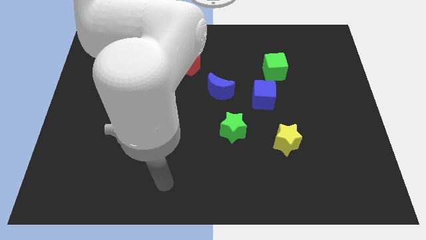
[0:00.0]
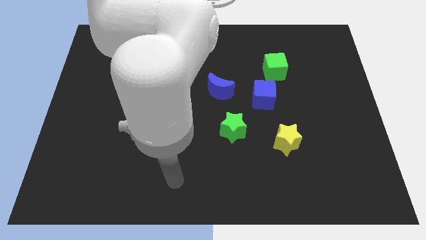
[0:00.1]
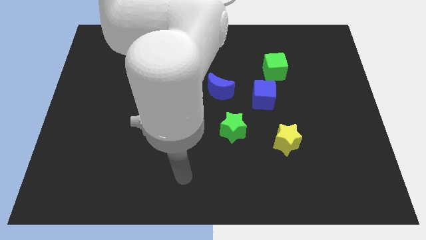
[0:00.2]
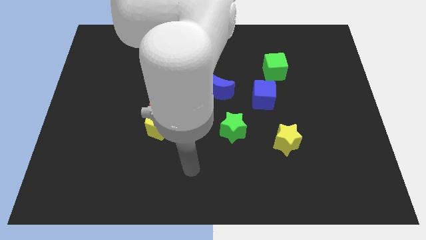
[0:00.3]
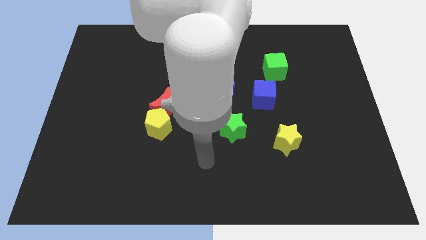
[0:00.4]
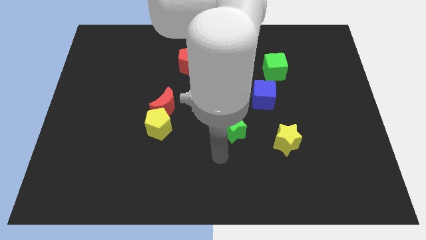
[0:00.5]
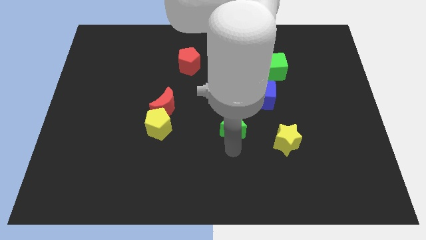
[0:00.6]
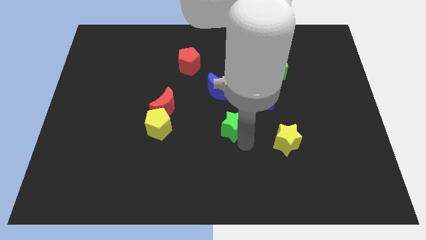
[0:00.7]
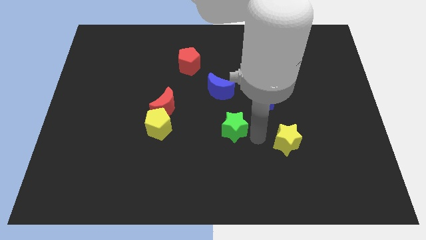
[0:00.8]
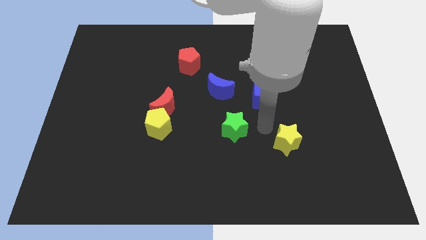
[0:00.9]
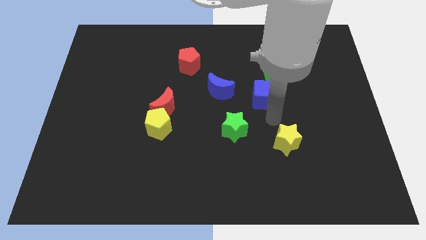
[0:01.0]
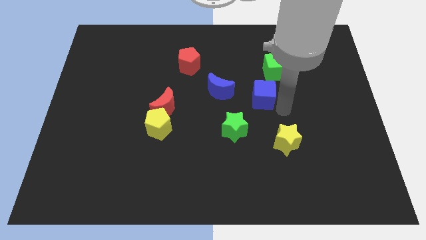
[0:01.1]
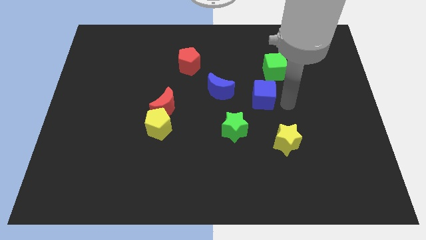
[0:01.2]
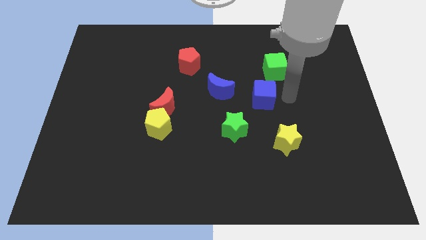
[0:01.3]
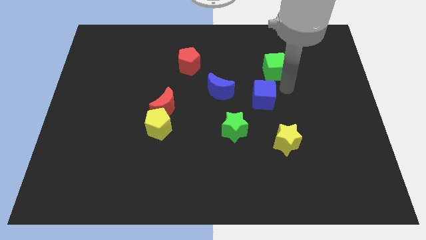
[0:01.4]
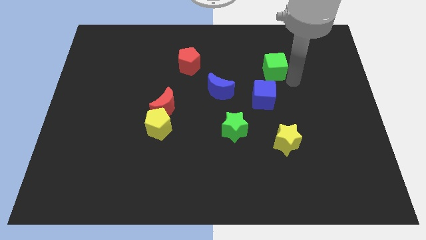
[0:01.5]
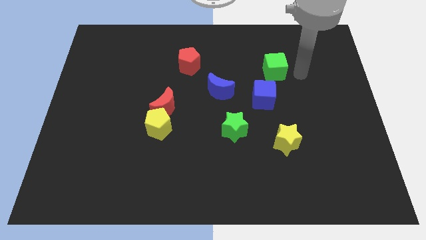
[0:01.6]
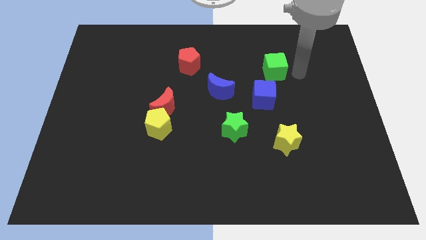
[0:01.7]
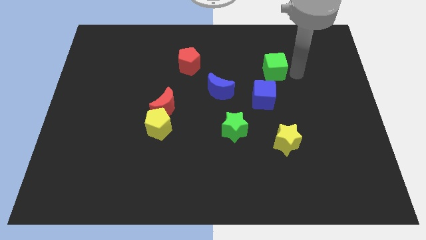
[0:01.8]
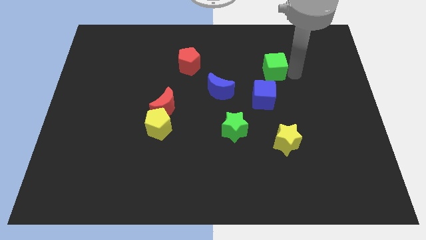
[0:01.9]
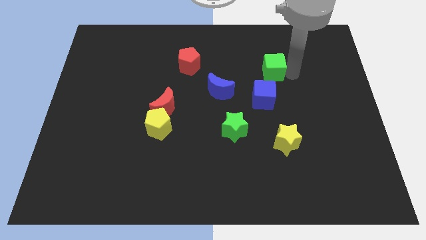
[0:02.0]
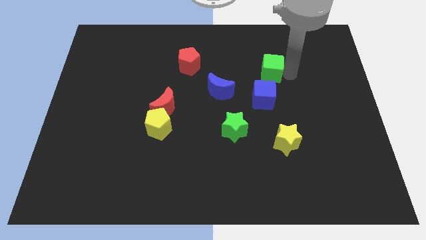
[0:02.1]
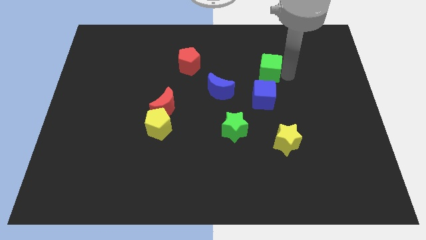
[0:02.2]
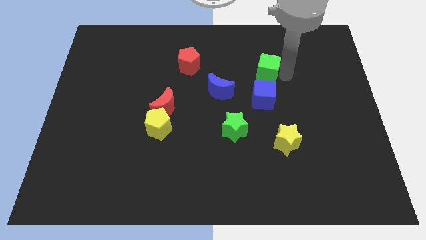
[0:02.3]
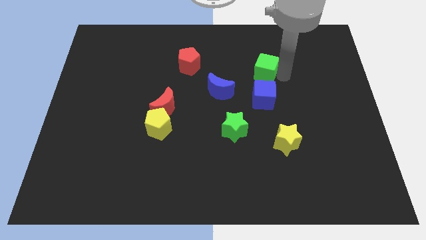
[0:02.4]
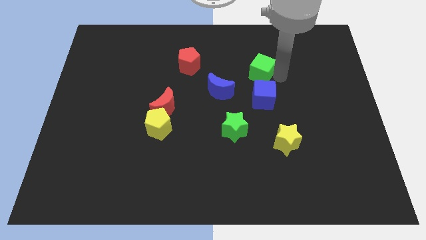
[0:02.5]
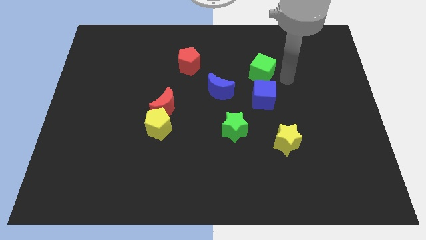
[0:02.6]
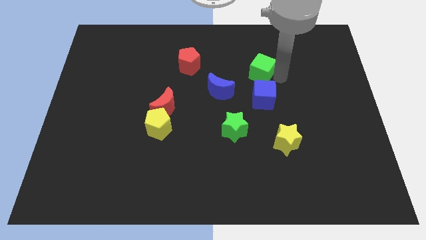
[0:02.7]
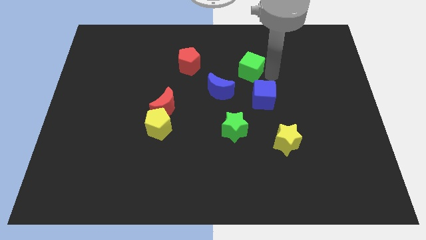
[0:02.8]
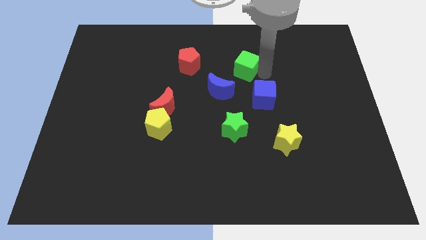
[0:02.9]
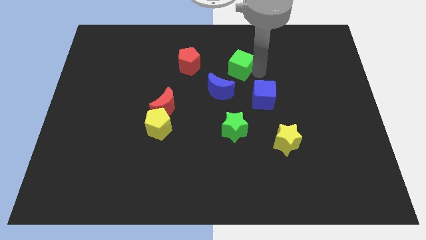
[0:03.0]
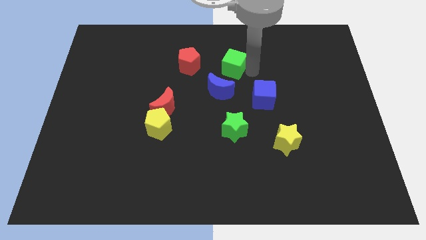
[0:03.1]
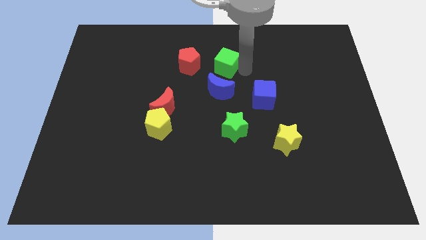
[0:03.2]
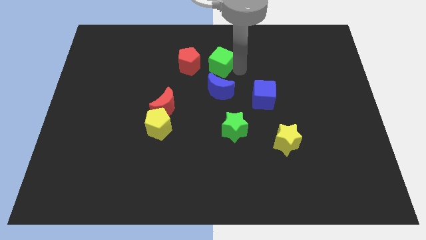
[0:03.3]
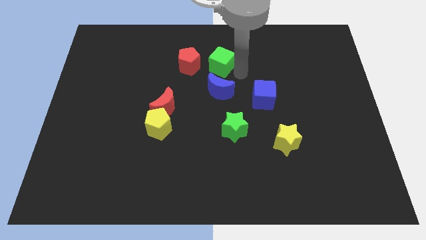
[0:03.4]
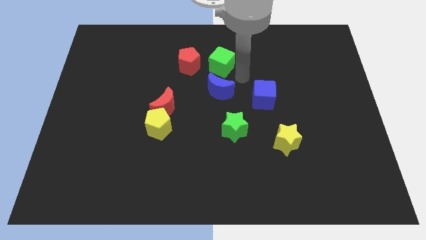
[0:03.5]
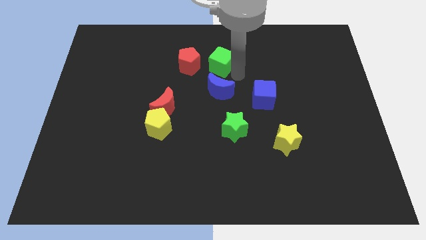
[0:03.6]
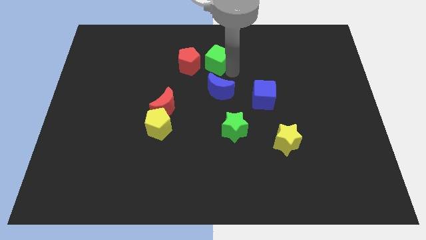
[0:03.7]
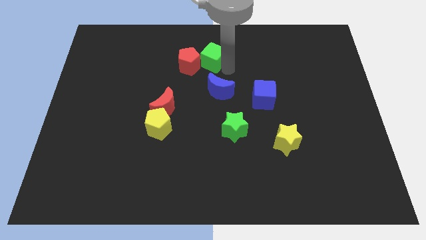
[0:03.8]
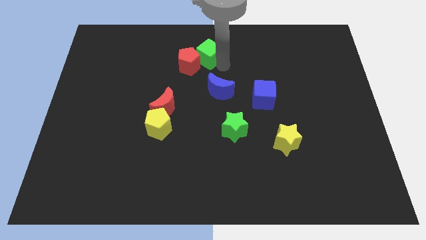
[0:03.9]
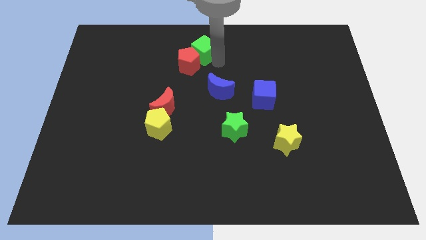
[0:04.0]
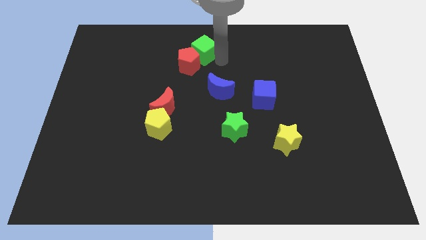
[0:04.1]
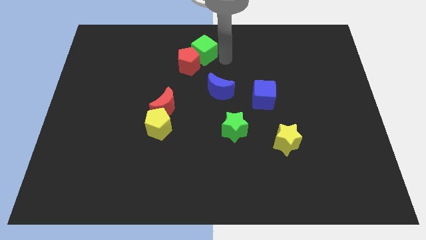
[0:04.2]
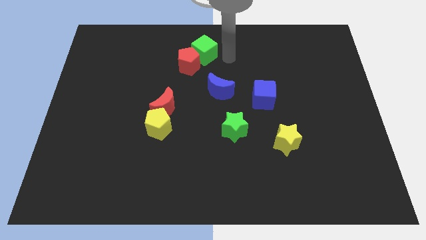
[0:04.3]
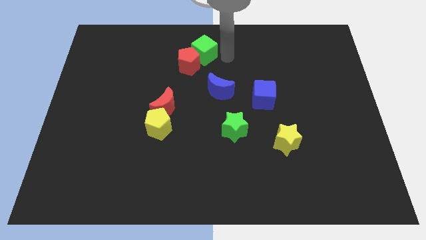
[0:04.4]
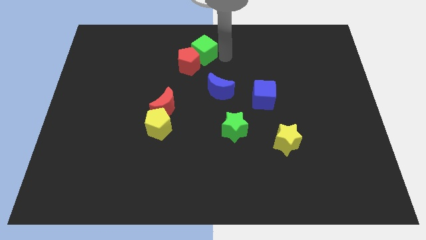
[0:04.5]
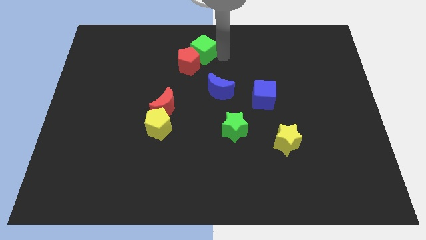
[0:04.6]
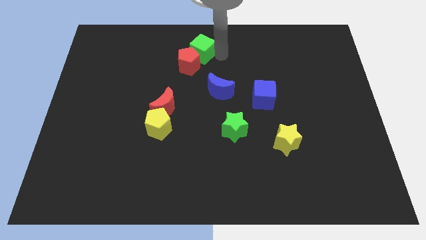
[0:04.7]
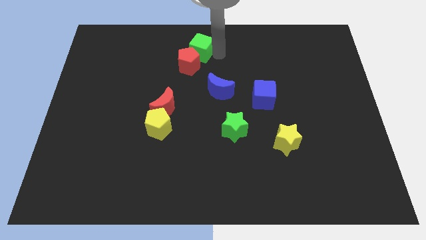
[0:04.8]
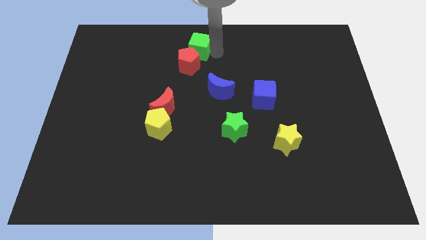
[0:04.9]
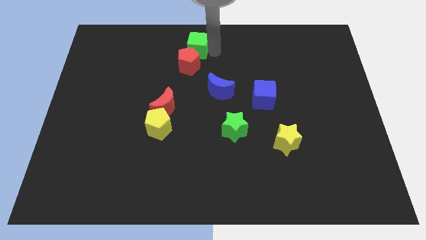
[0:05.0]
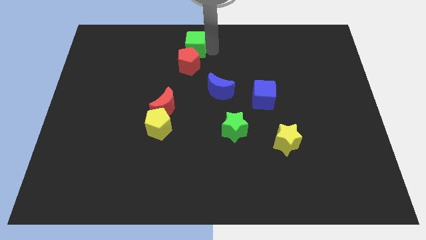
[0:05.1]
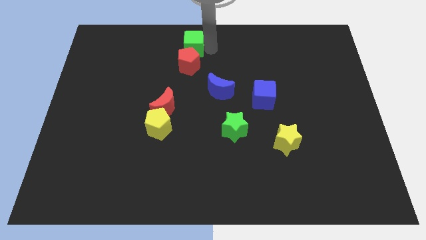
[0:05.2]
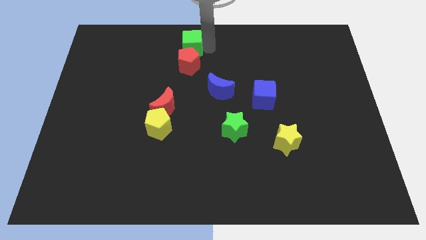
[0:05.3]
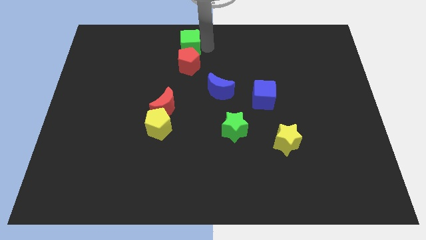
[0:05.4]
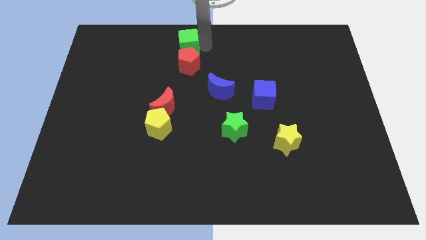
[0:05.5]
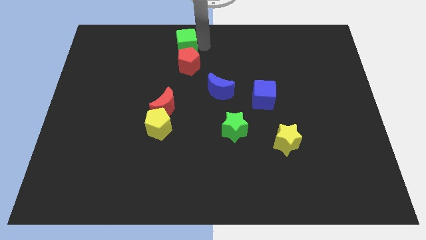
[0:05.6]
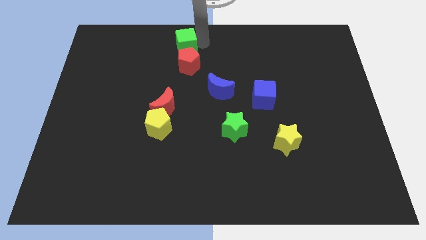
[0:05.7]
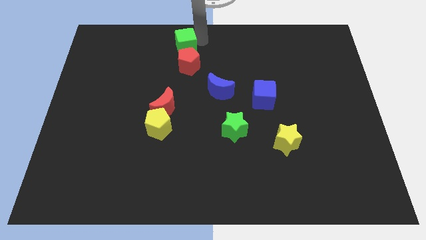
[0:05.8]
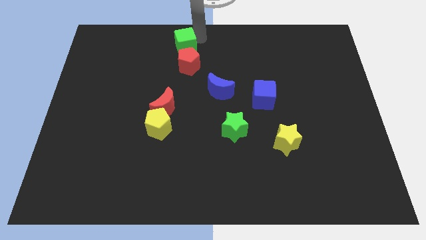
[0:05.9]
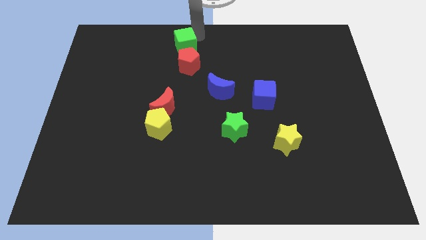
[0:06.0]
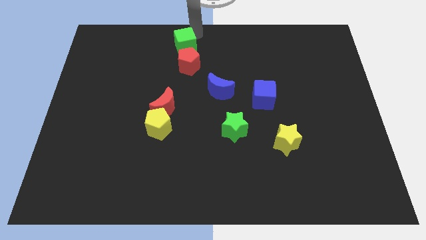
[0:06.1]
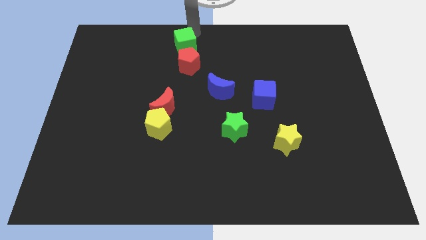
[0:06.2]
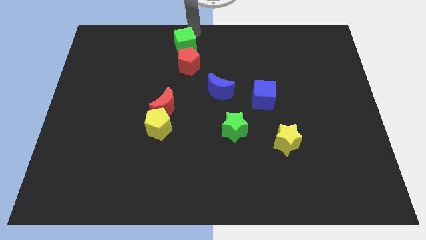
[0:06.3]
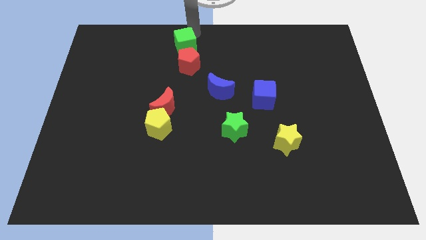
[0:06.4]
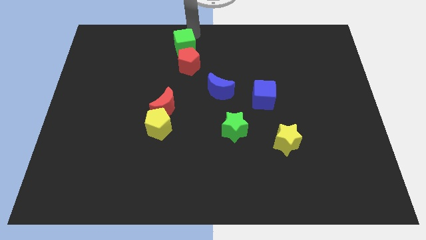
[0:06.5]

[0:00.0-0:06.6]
move the green cube left

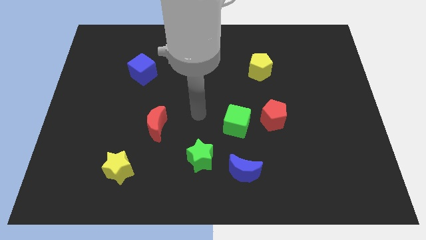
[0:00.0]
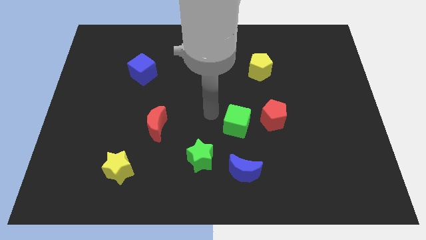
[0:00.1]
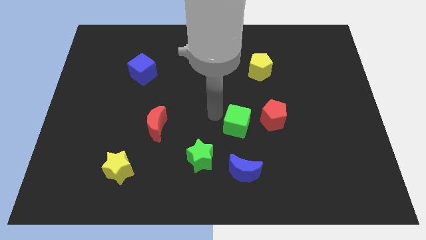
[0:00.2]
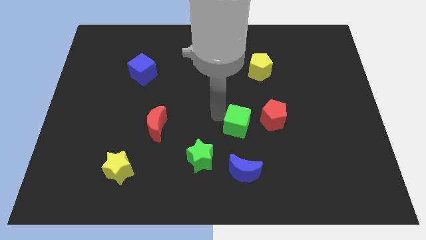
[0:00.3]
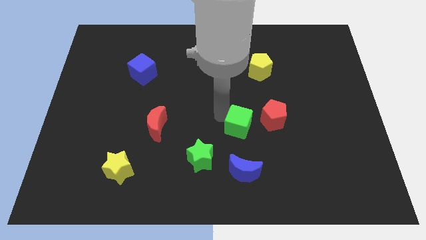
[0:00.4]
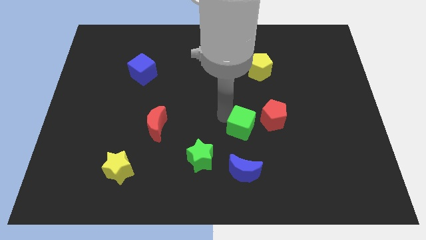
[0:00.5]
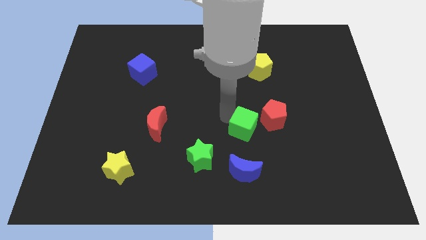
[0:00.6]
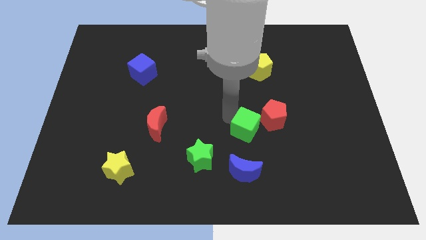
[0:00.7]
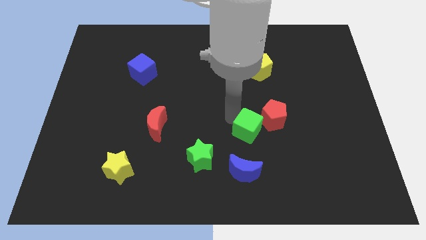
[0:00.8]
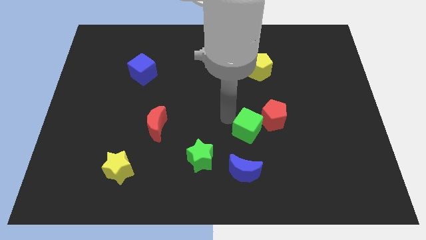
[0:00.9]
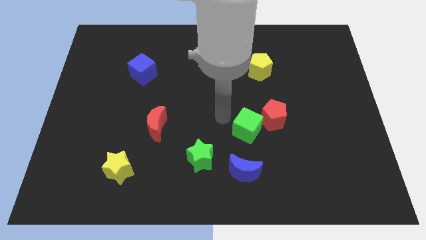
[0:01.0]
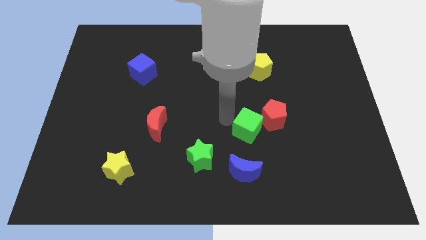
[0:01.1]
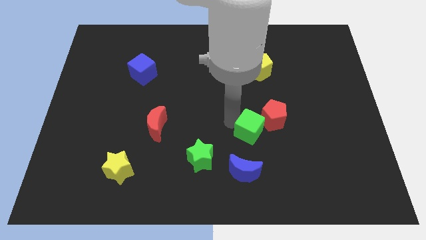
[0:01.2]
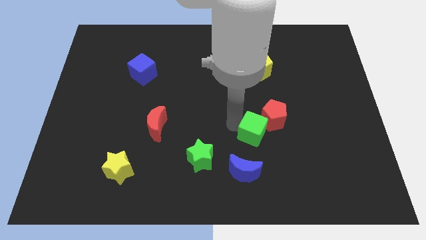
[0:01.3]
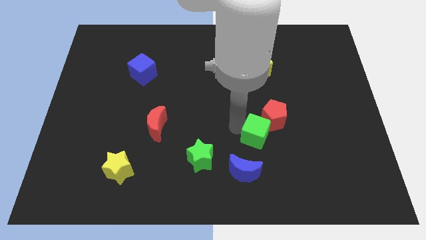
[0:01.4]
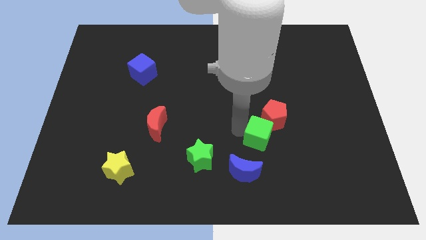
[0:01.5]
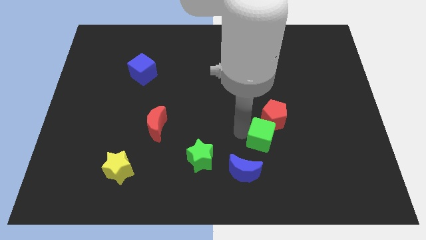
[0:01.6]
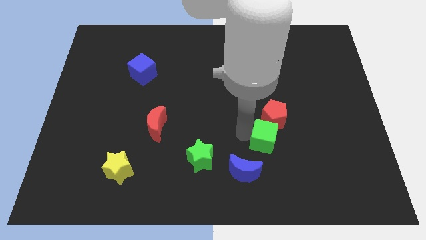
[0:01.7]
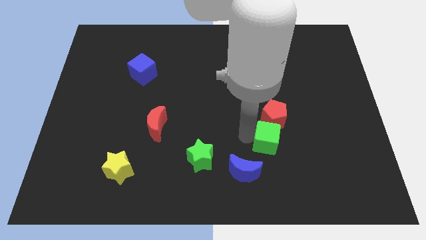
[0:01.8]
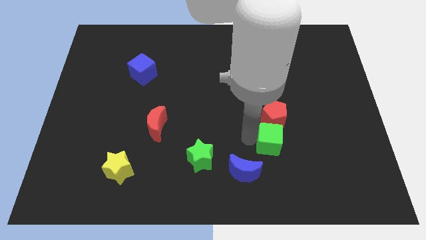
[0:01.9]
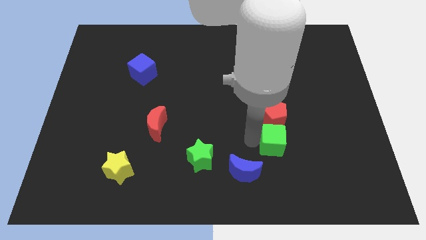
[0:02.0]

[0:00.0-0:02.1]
push the green cube to the right somewhat
